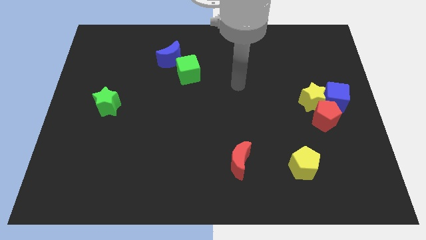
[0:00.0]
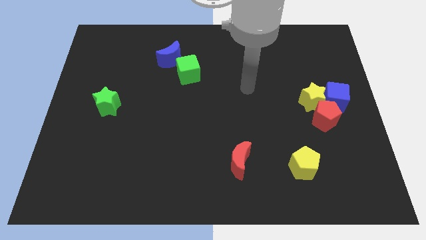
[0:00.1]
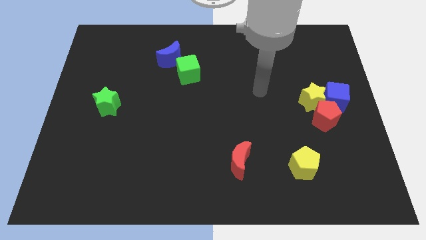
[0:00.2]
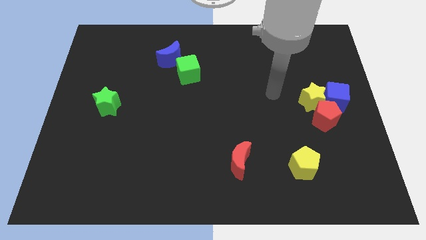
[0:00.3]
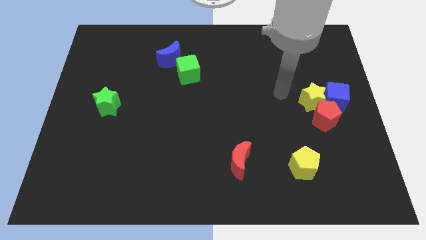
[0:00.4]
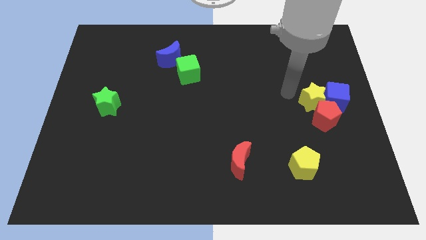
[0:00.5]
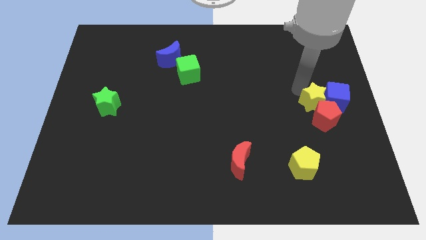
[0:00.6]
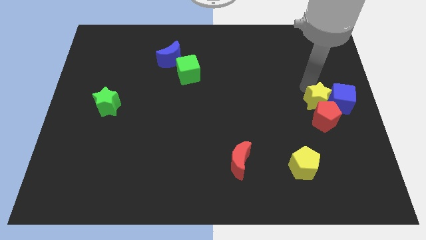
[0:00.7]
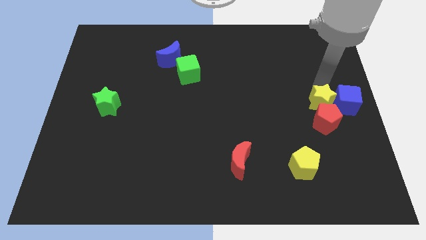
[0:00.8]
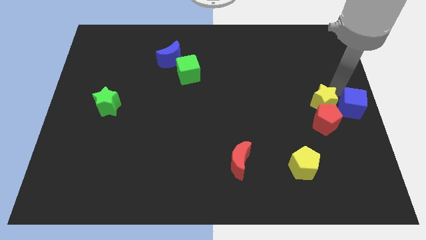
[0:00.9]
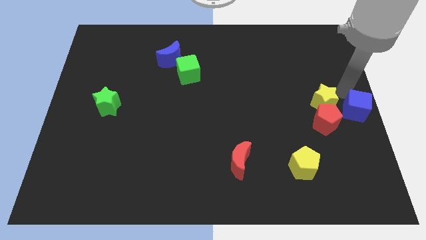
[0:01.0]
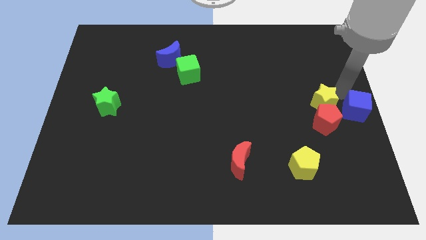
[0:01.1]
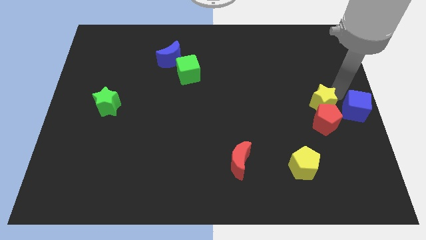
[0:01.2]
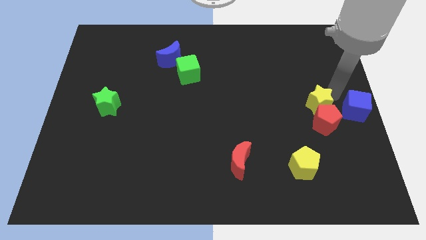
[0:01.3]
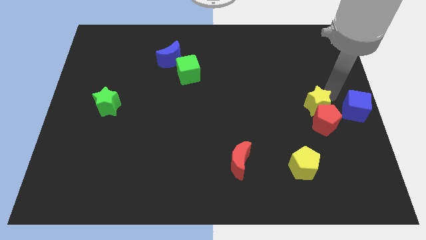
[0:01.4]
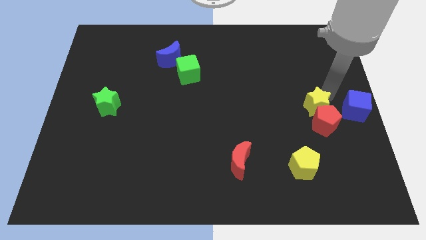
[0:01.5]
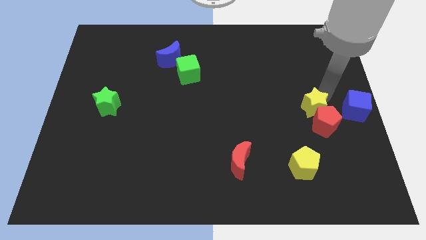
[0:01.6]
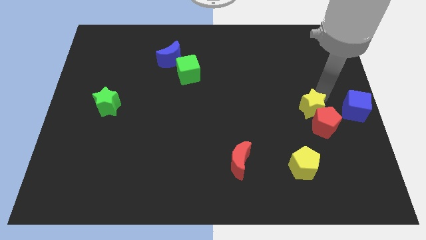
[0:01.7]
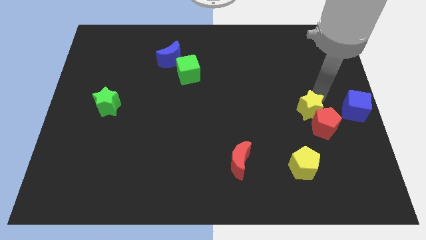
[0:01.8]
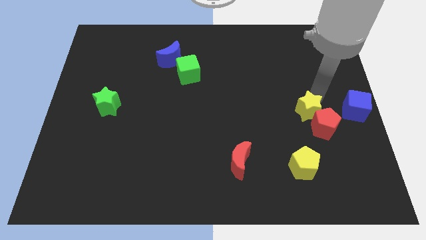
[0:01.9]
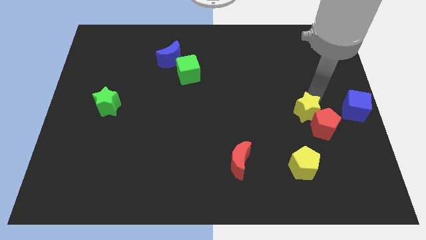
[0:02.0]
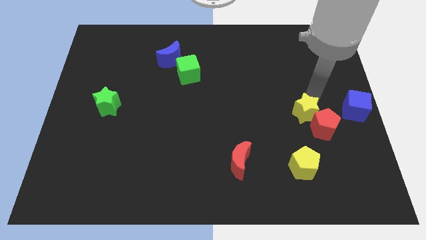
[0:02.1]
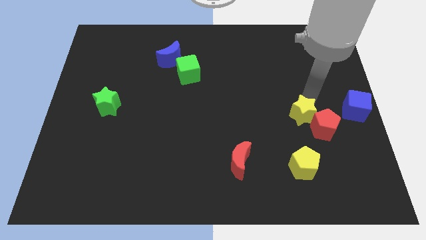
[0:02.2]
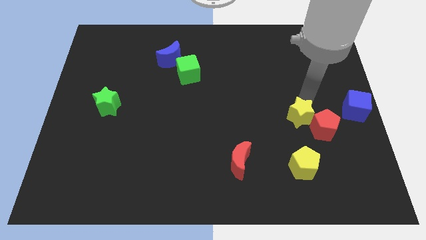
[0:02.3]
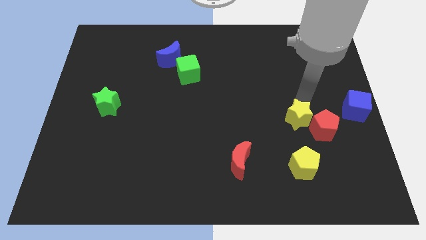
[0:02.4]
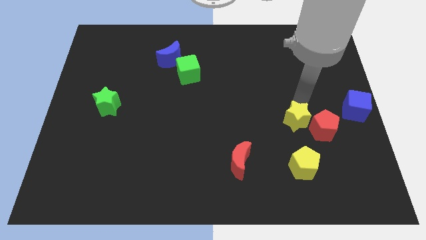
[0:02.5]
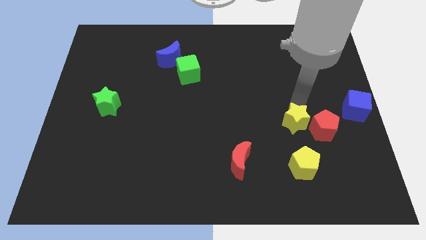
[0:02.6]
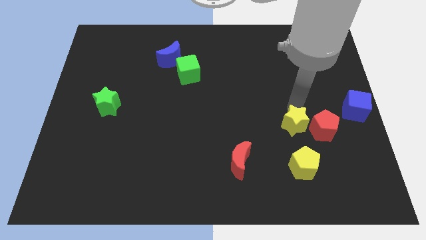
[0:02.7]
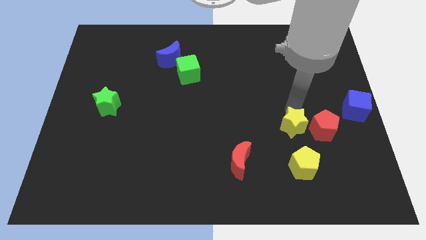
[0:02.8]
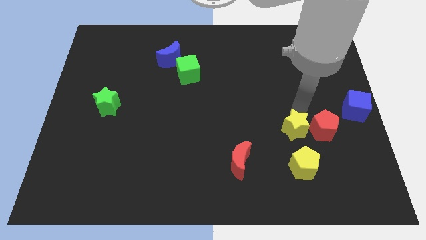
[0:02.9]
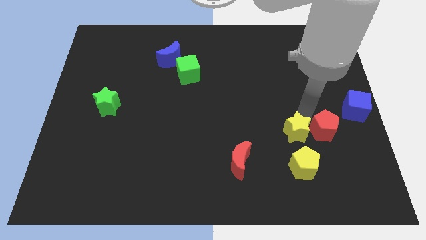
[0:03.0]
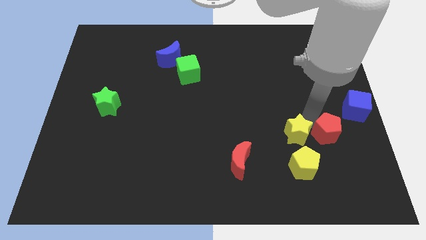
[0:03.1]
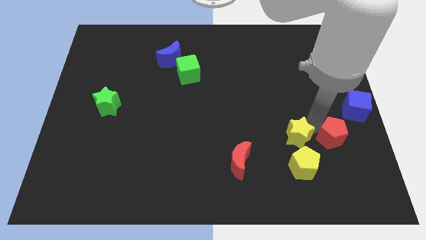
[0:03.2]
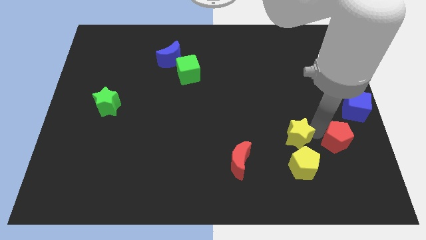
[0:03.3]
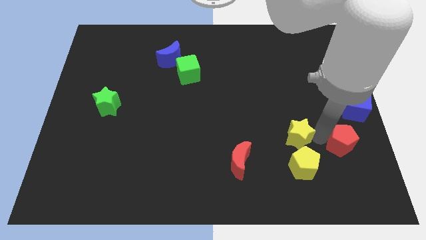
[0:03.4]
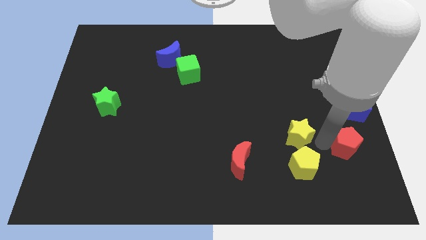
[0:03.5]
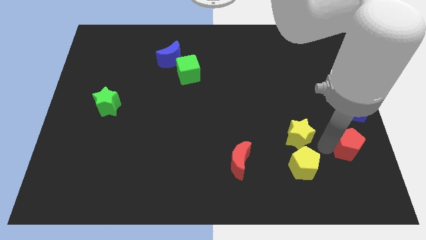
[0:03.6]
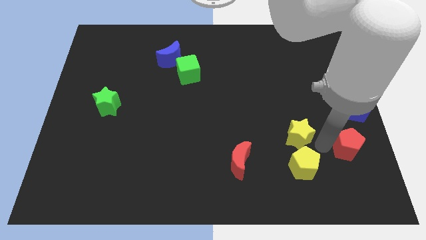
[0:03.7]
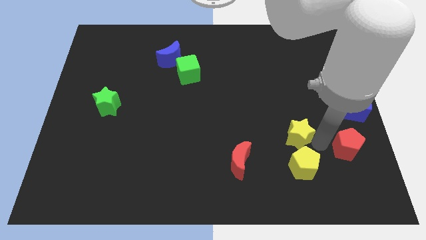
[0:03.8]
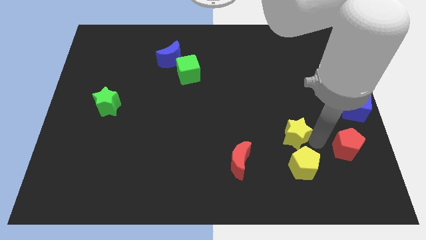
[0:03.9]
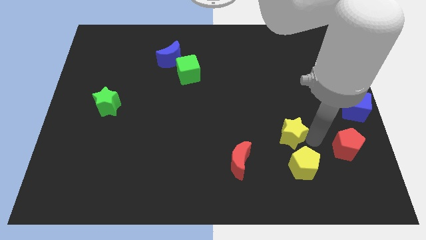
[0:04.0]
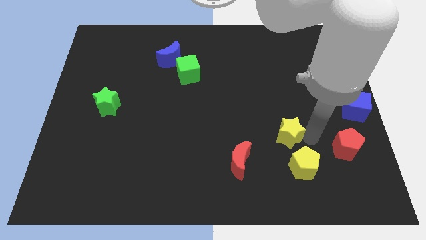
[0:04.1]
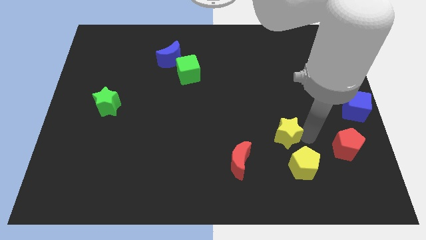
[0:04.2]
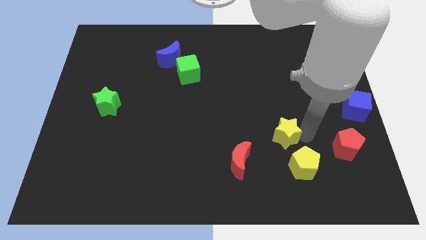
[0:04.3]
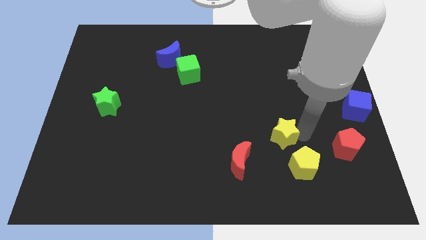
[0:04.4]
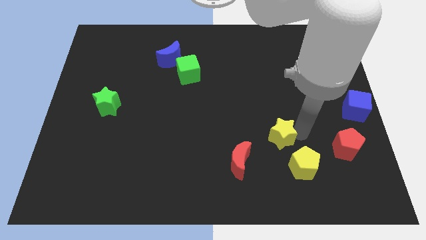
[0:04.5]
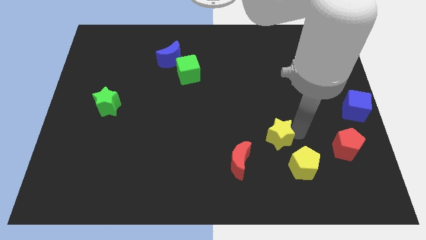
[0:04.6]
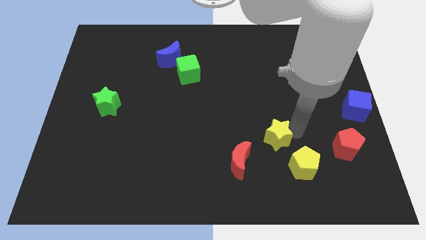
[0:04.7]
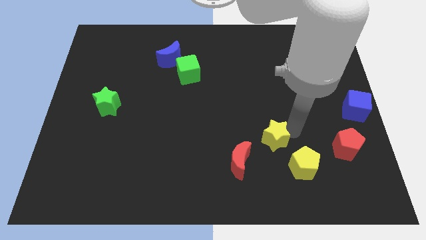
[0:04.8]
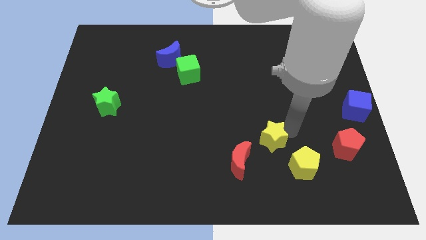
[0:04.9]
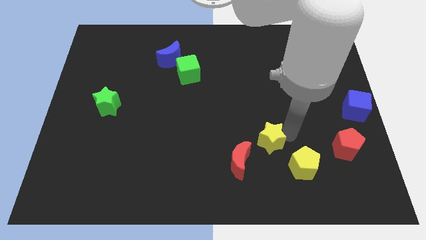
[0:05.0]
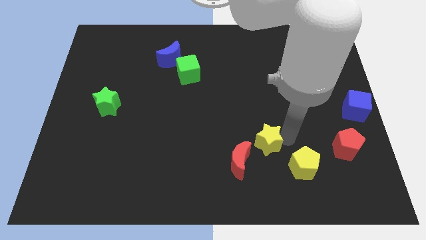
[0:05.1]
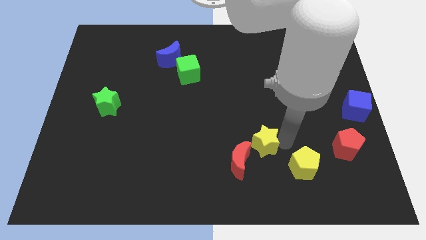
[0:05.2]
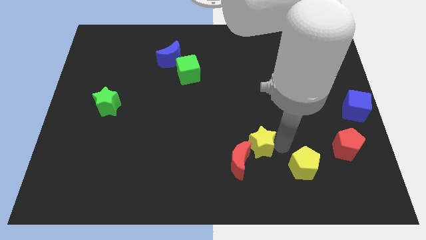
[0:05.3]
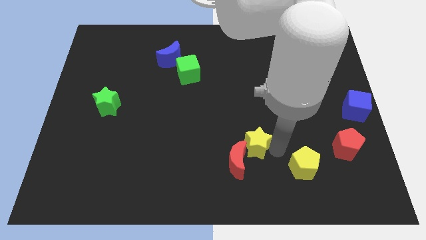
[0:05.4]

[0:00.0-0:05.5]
move the yellow star next to the red moon

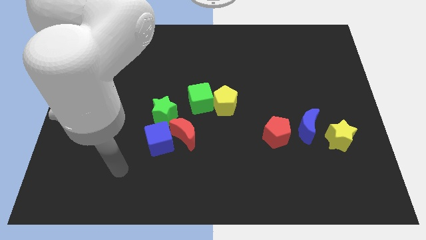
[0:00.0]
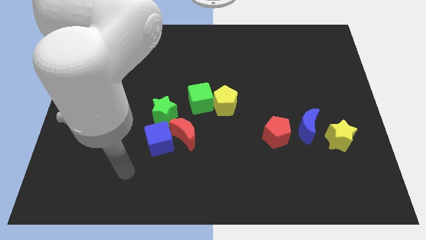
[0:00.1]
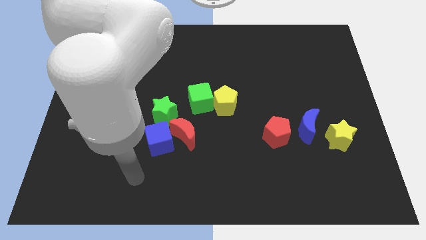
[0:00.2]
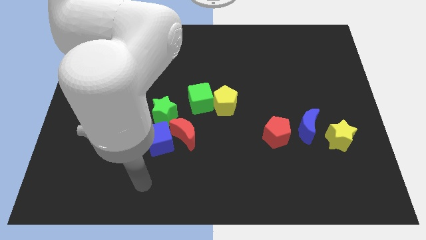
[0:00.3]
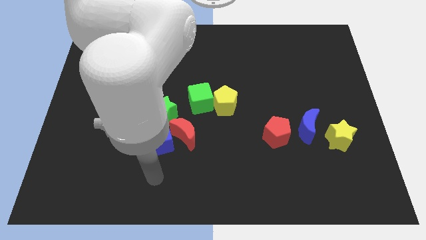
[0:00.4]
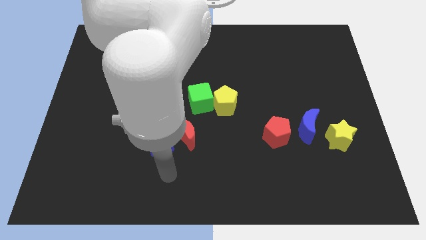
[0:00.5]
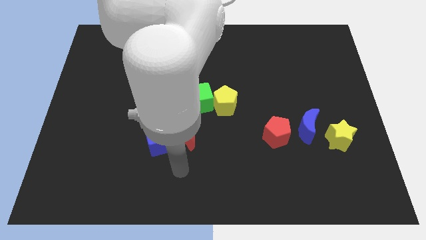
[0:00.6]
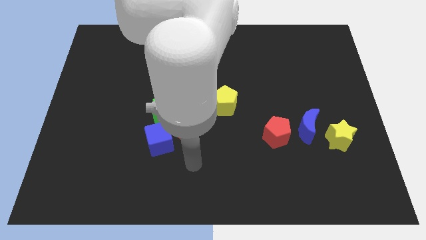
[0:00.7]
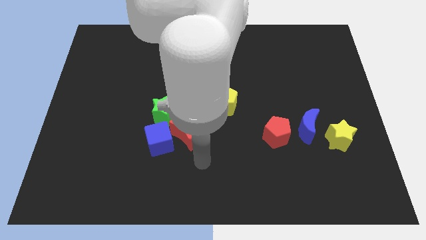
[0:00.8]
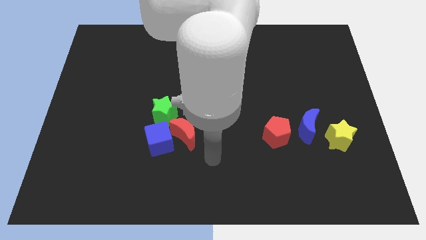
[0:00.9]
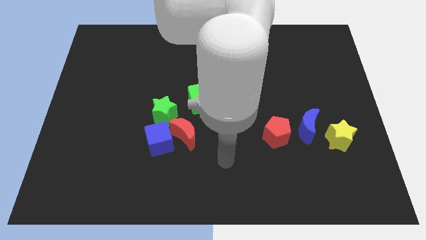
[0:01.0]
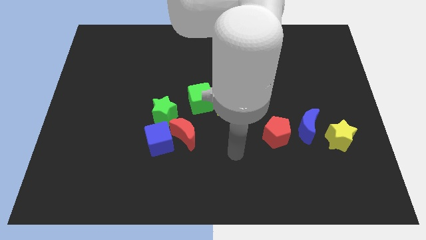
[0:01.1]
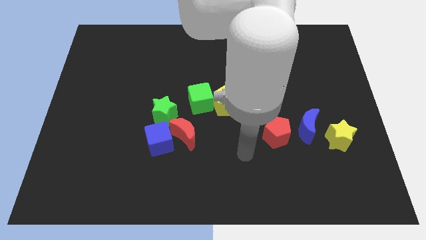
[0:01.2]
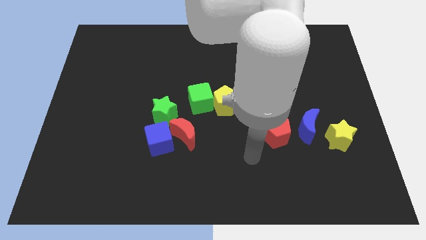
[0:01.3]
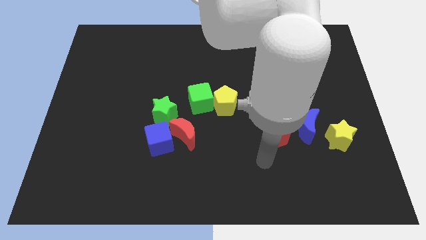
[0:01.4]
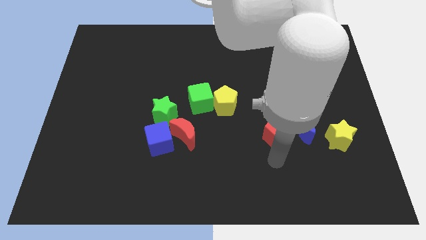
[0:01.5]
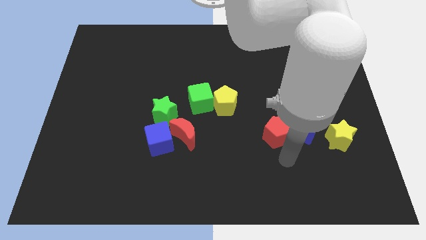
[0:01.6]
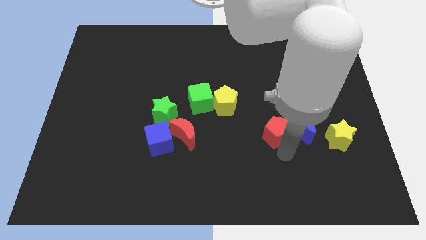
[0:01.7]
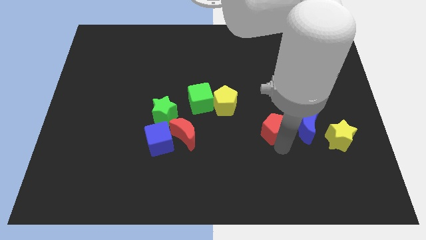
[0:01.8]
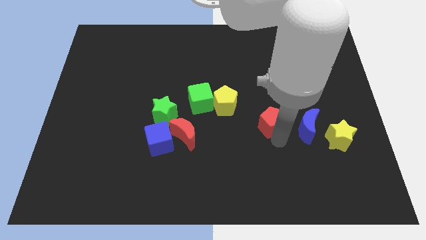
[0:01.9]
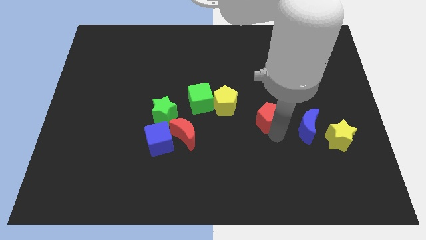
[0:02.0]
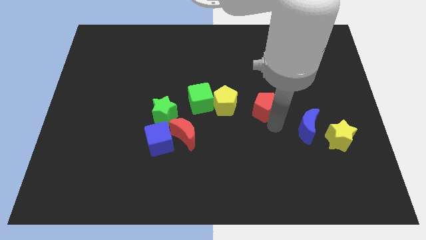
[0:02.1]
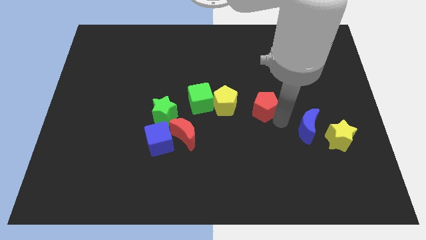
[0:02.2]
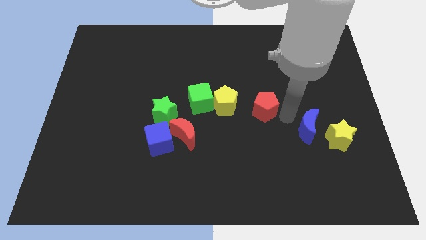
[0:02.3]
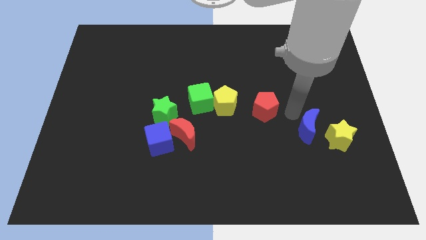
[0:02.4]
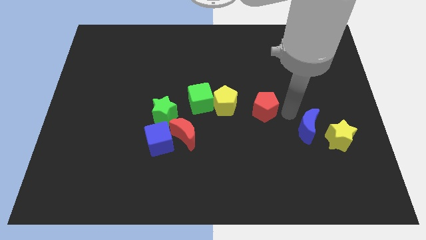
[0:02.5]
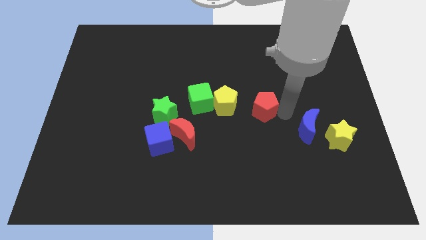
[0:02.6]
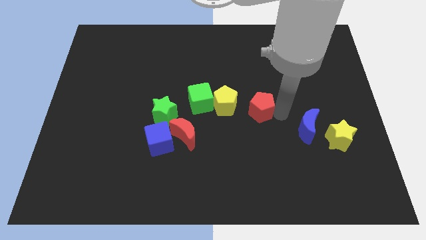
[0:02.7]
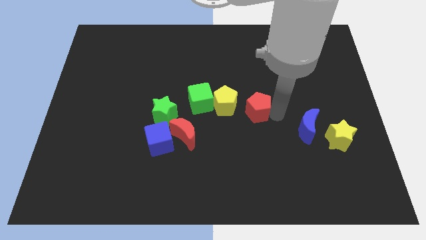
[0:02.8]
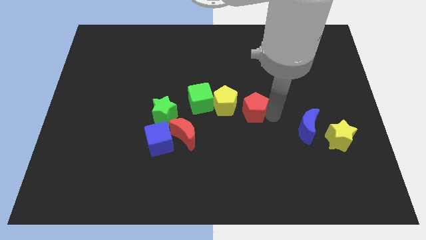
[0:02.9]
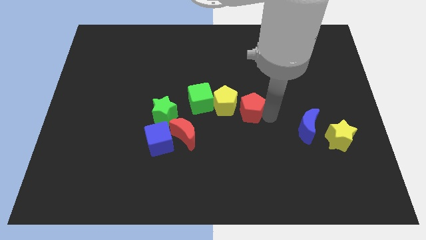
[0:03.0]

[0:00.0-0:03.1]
slide the red pentagon next to the yellow pentagon
